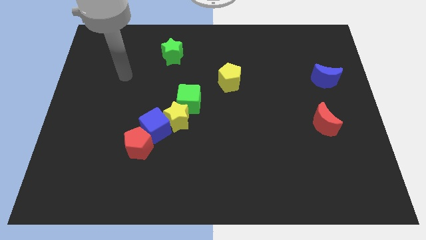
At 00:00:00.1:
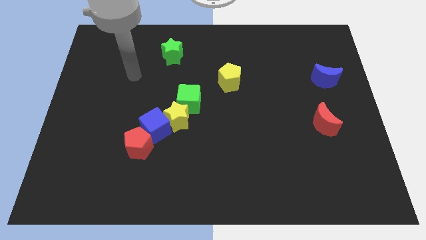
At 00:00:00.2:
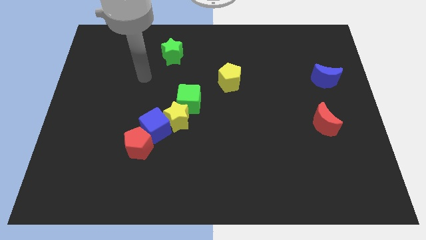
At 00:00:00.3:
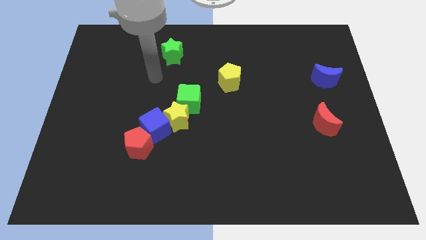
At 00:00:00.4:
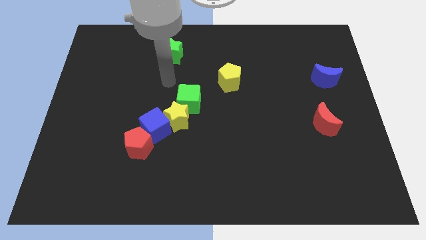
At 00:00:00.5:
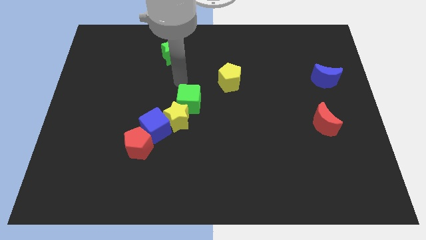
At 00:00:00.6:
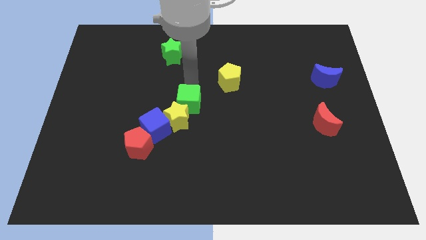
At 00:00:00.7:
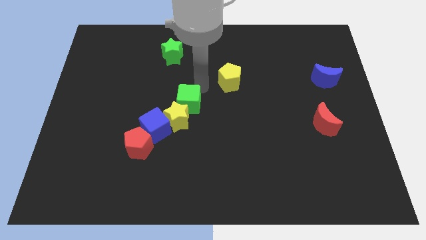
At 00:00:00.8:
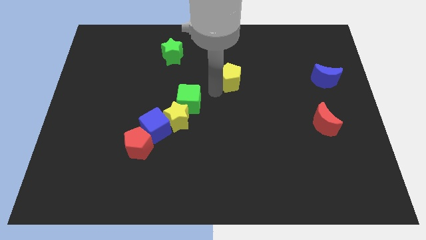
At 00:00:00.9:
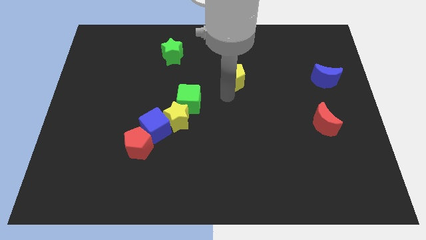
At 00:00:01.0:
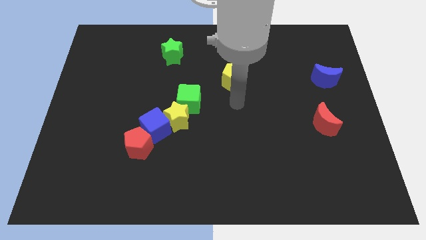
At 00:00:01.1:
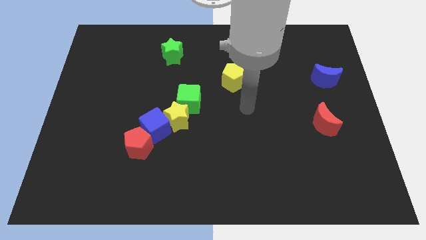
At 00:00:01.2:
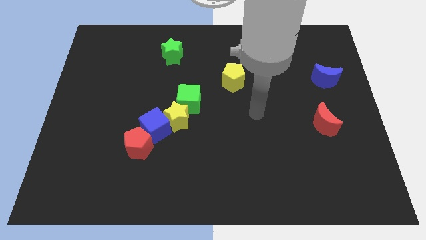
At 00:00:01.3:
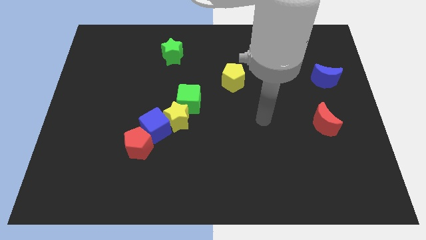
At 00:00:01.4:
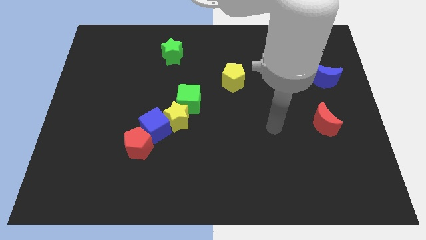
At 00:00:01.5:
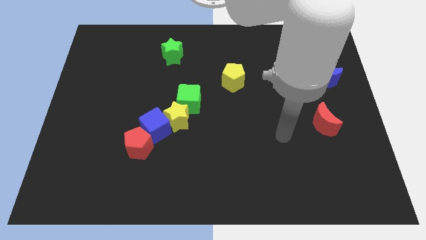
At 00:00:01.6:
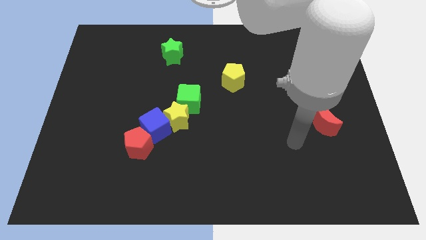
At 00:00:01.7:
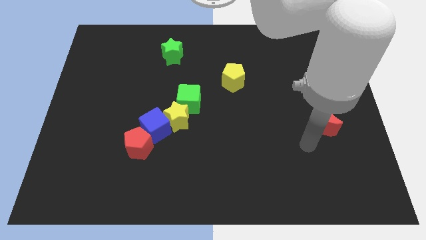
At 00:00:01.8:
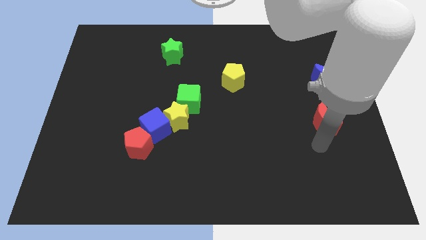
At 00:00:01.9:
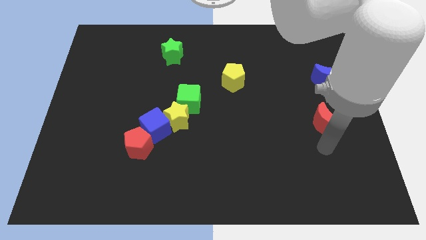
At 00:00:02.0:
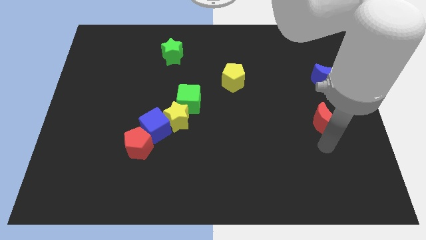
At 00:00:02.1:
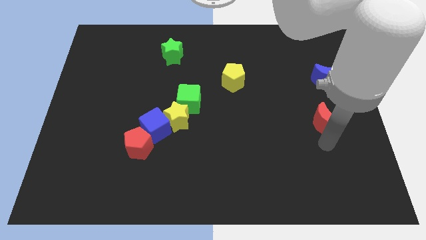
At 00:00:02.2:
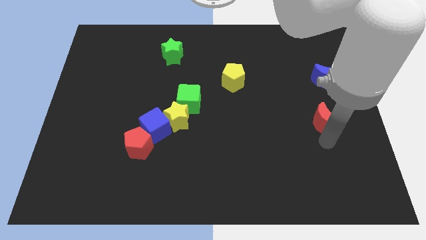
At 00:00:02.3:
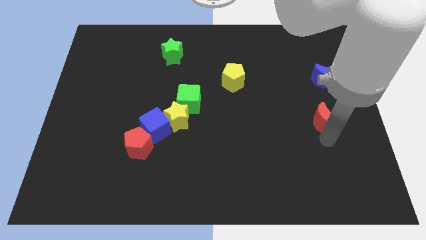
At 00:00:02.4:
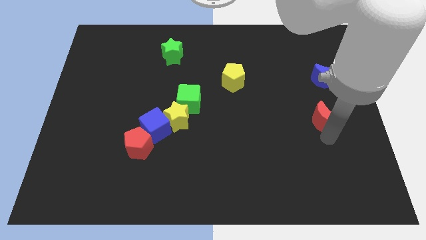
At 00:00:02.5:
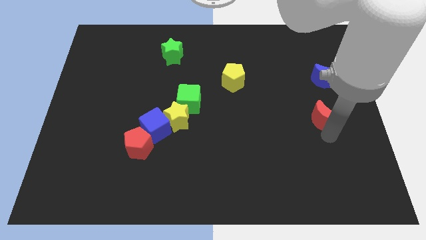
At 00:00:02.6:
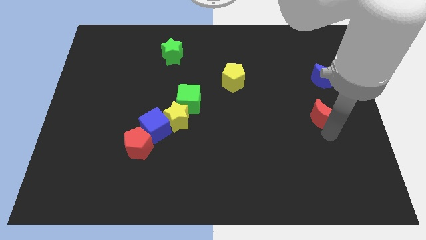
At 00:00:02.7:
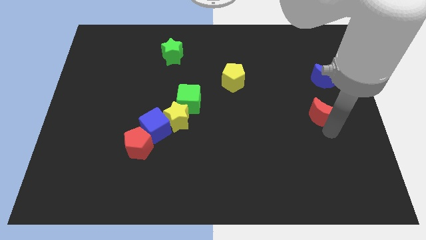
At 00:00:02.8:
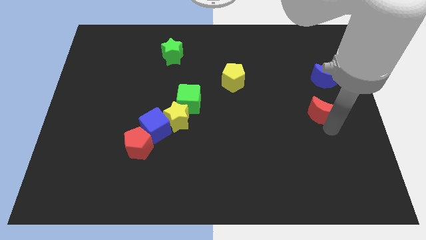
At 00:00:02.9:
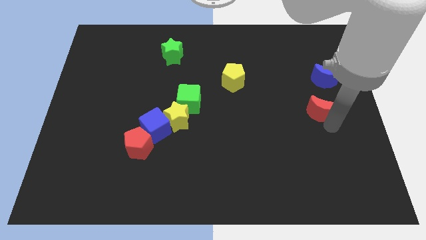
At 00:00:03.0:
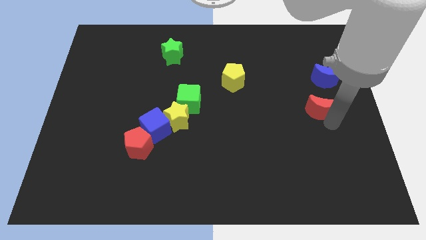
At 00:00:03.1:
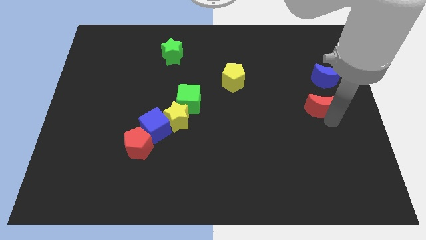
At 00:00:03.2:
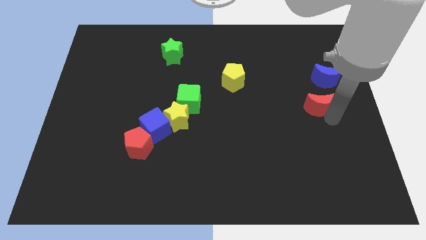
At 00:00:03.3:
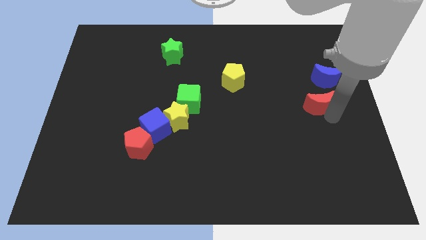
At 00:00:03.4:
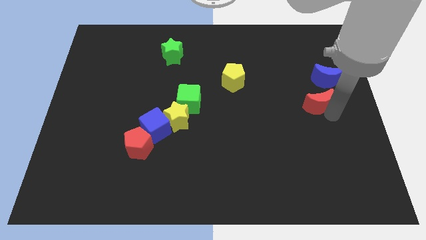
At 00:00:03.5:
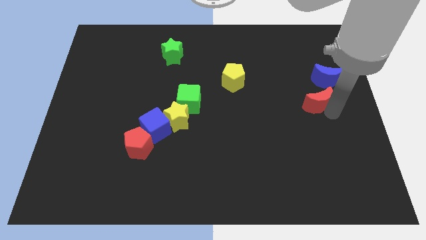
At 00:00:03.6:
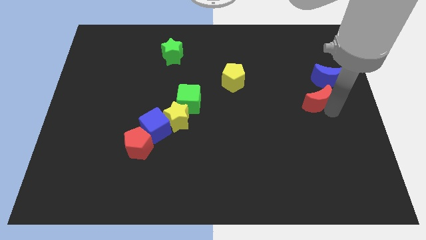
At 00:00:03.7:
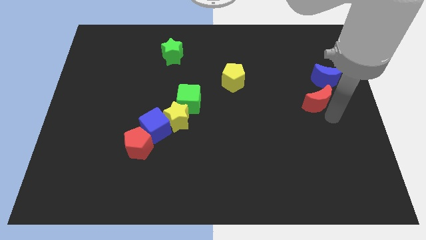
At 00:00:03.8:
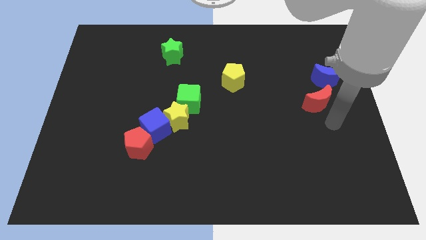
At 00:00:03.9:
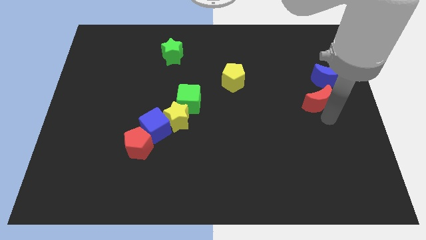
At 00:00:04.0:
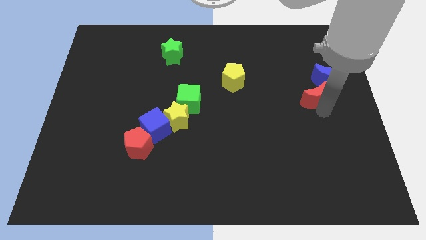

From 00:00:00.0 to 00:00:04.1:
push the red moon upwards a little

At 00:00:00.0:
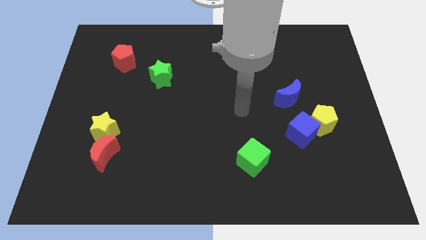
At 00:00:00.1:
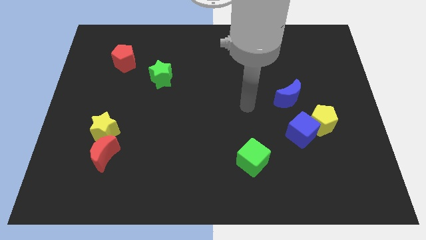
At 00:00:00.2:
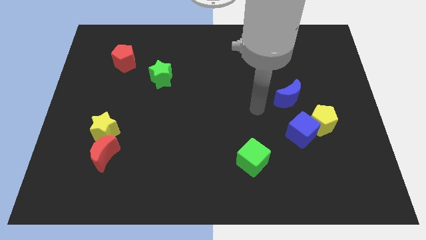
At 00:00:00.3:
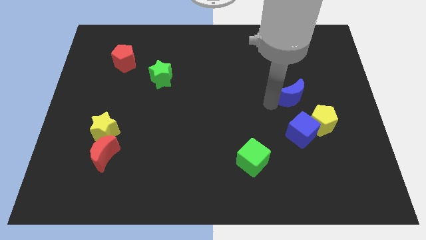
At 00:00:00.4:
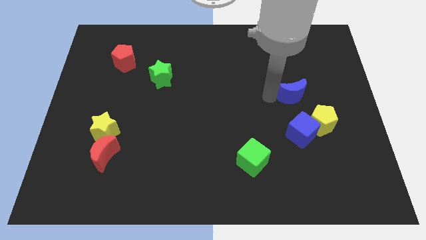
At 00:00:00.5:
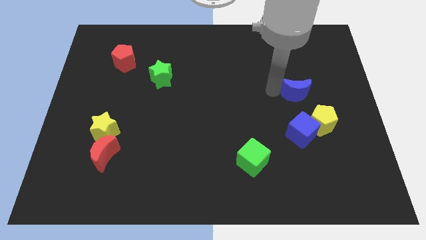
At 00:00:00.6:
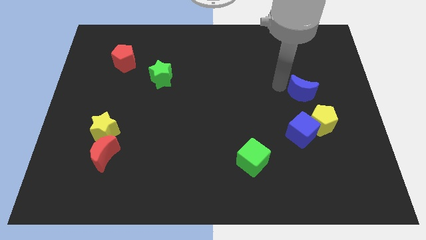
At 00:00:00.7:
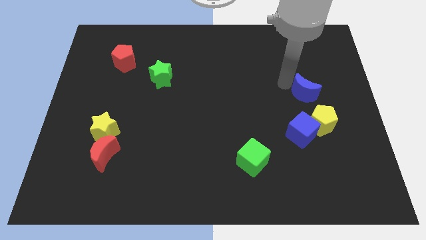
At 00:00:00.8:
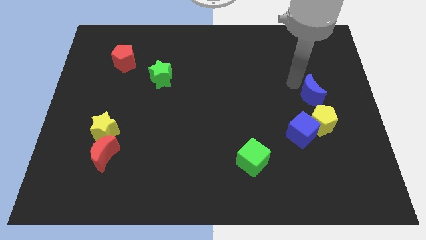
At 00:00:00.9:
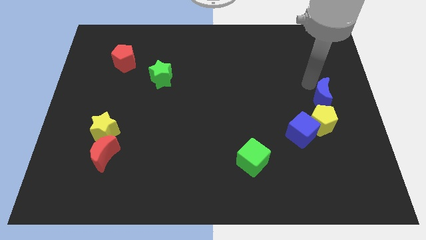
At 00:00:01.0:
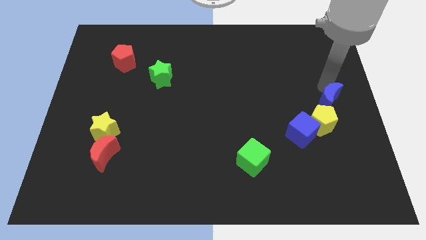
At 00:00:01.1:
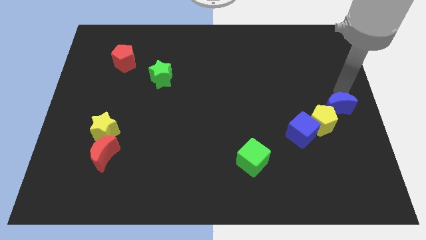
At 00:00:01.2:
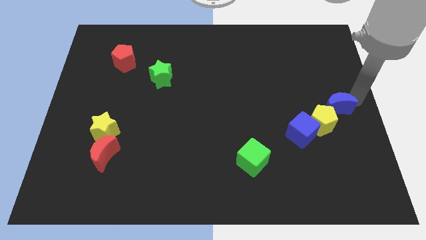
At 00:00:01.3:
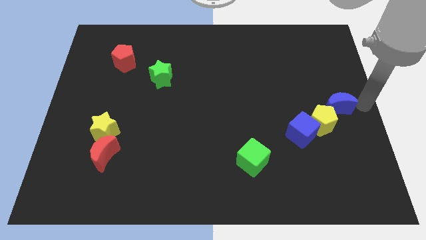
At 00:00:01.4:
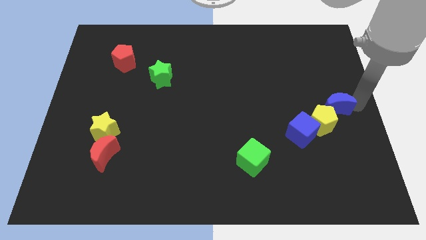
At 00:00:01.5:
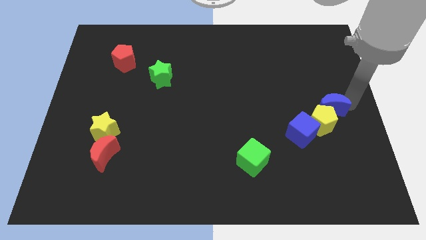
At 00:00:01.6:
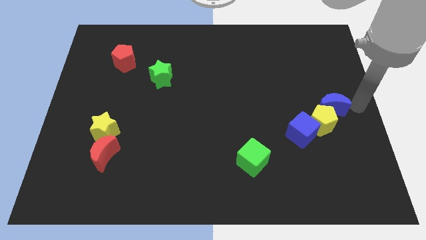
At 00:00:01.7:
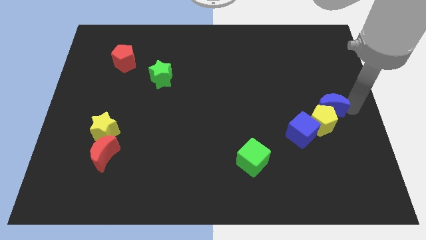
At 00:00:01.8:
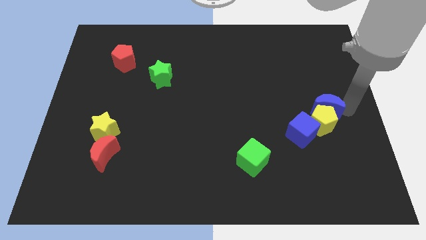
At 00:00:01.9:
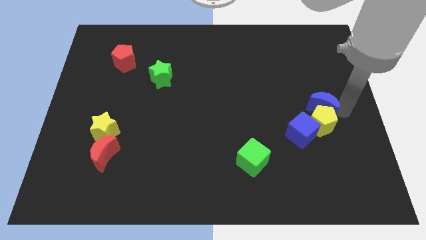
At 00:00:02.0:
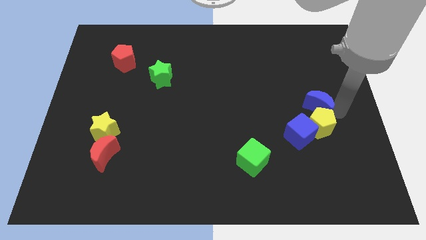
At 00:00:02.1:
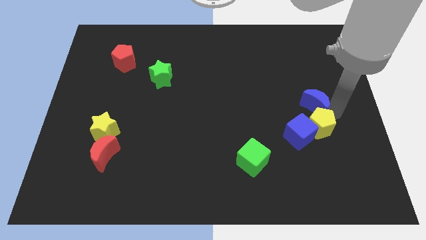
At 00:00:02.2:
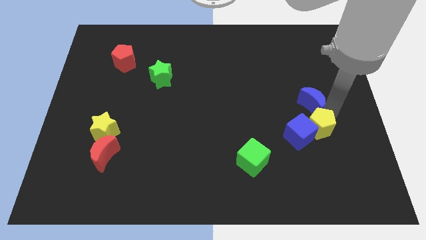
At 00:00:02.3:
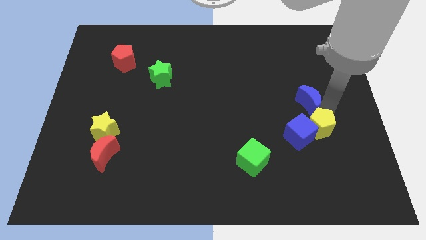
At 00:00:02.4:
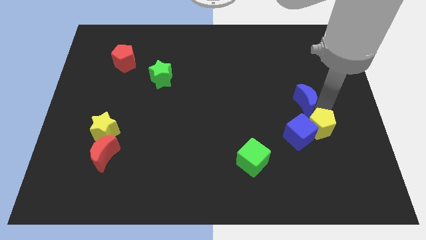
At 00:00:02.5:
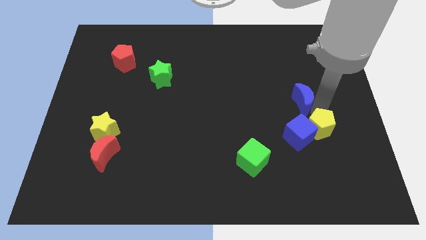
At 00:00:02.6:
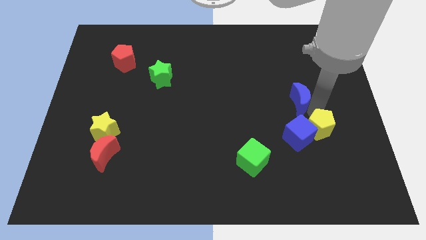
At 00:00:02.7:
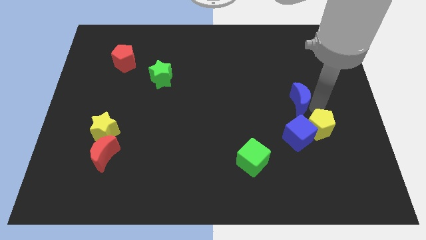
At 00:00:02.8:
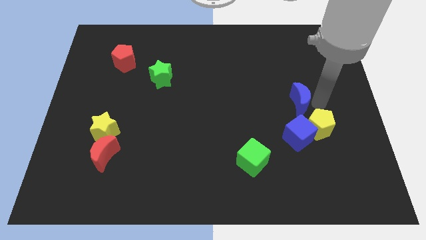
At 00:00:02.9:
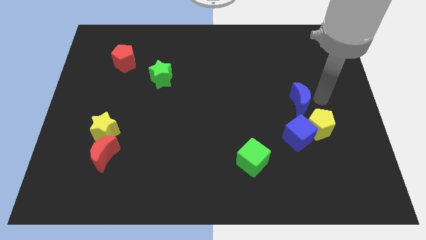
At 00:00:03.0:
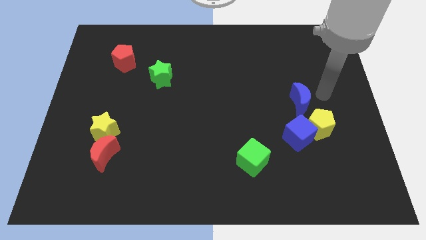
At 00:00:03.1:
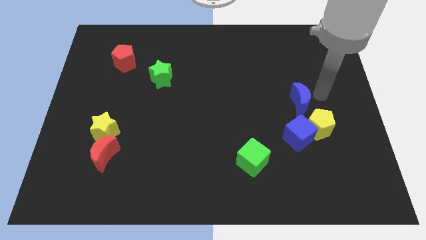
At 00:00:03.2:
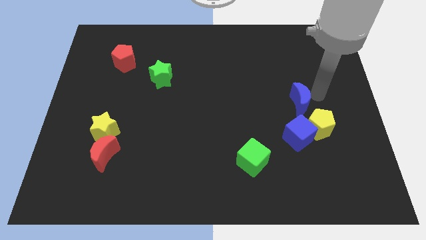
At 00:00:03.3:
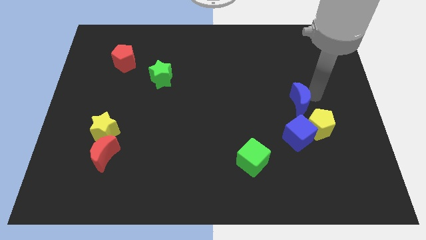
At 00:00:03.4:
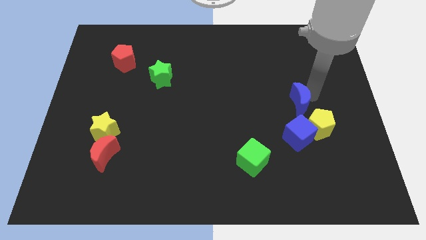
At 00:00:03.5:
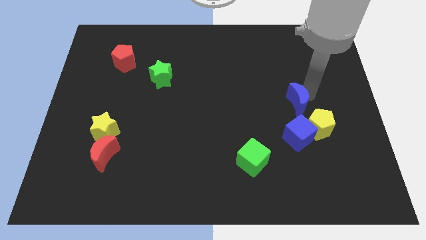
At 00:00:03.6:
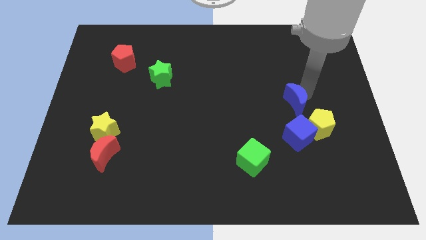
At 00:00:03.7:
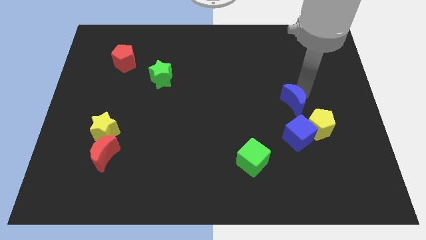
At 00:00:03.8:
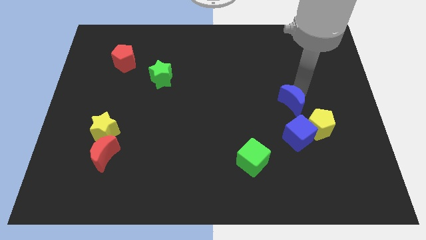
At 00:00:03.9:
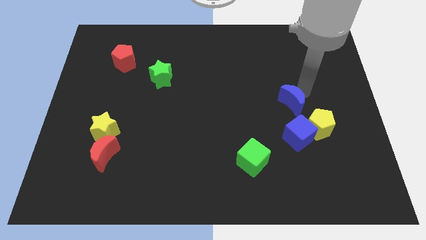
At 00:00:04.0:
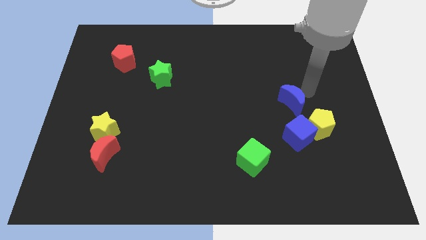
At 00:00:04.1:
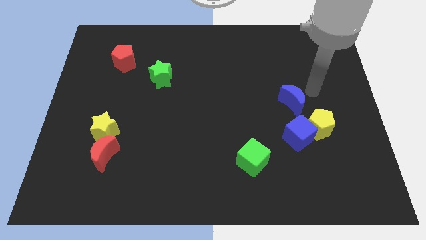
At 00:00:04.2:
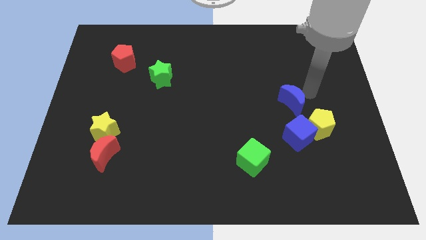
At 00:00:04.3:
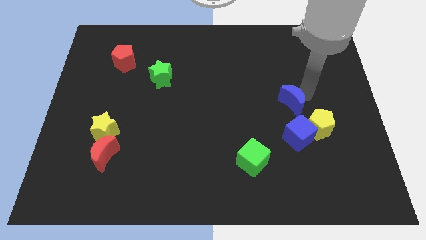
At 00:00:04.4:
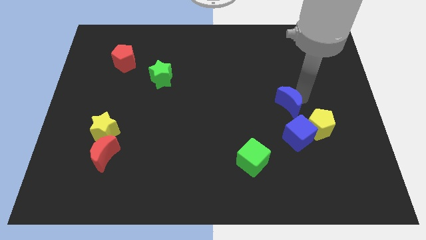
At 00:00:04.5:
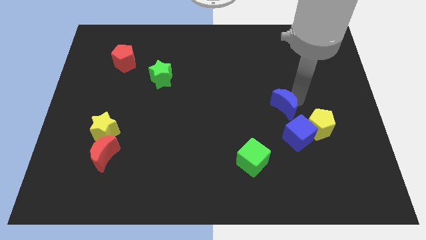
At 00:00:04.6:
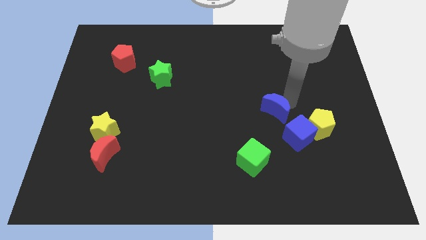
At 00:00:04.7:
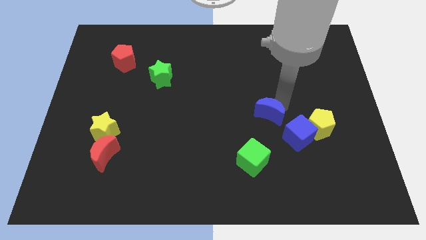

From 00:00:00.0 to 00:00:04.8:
move the blue moon a little downwards and to the left diagonally
